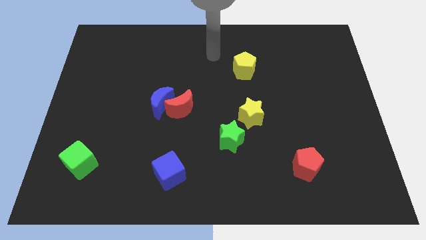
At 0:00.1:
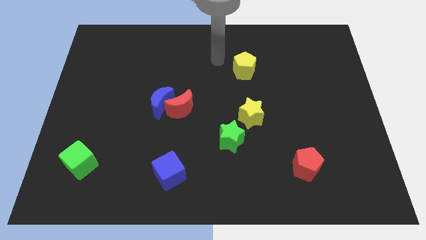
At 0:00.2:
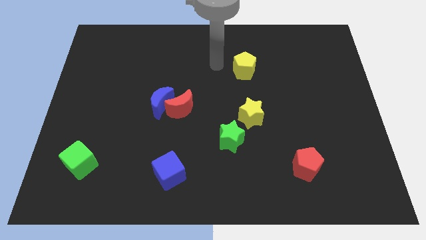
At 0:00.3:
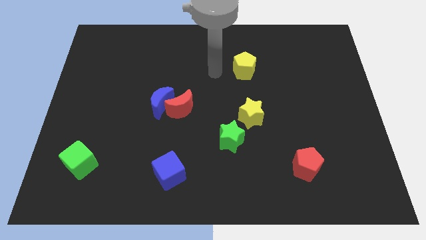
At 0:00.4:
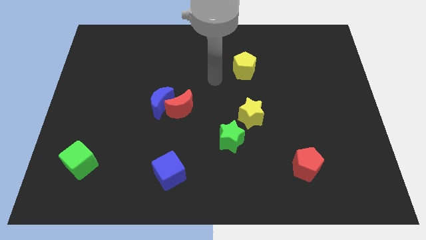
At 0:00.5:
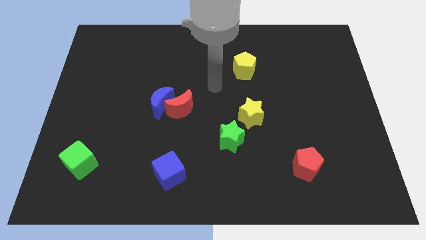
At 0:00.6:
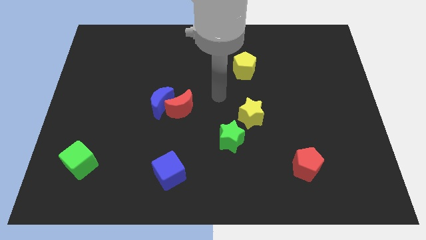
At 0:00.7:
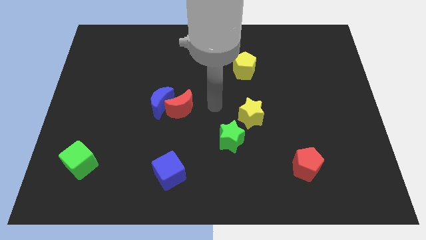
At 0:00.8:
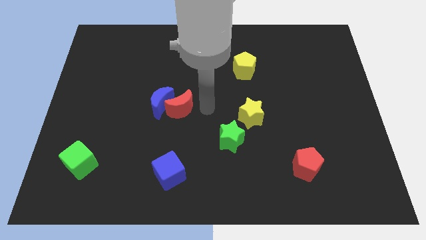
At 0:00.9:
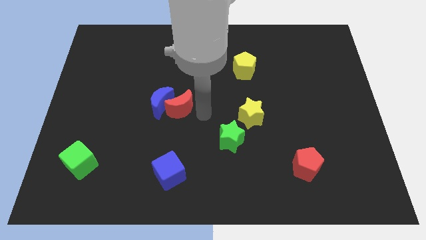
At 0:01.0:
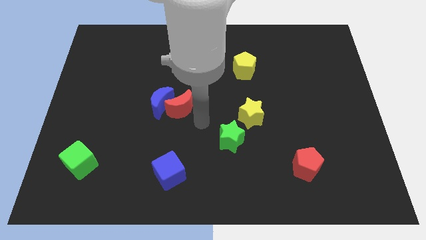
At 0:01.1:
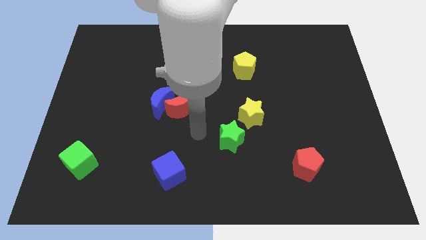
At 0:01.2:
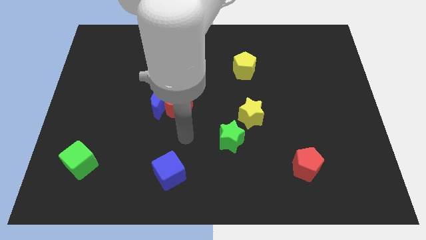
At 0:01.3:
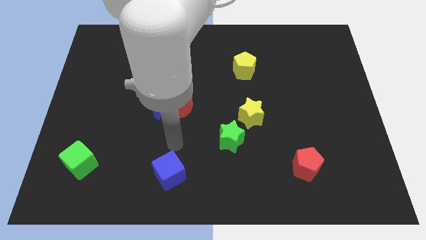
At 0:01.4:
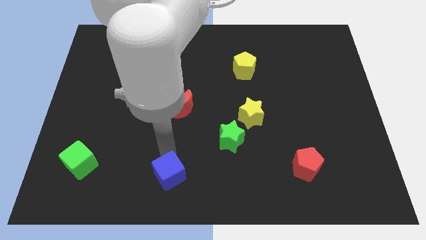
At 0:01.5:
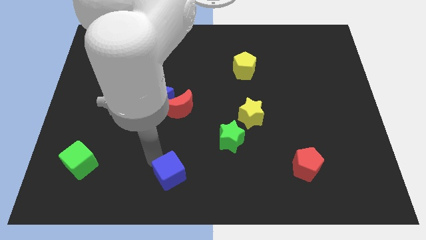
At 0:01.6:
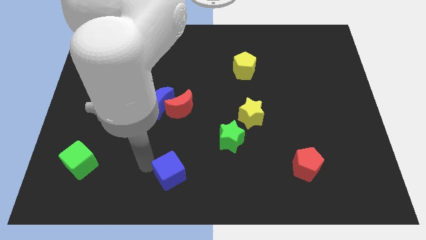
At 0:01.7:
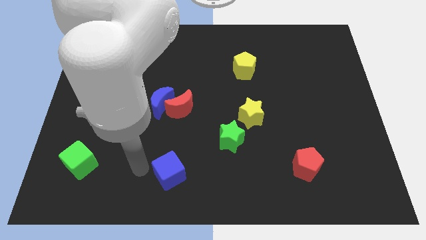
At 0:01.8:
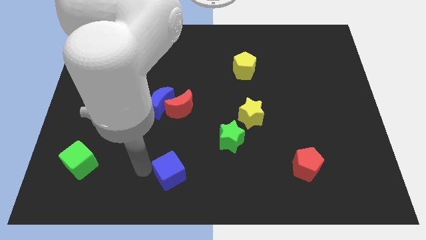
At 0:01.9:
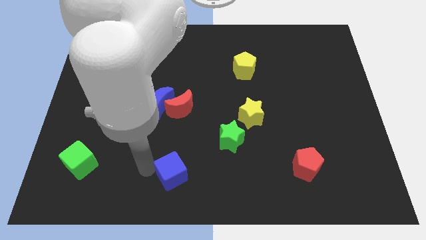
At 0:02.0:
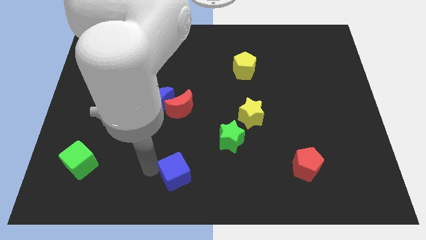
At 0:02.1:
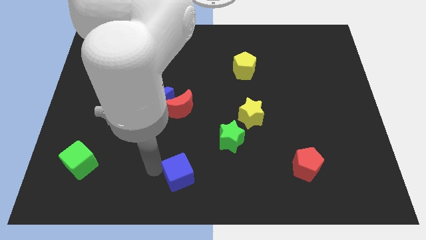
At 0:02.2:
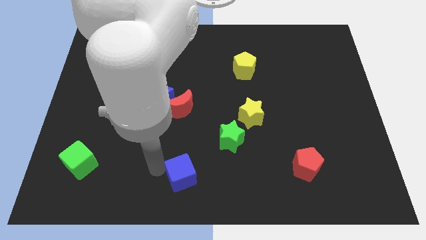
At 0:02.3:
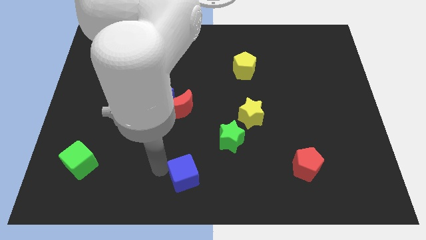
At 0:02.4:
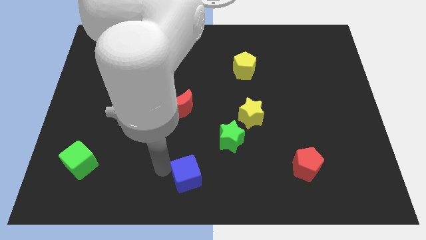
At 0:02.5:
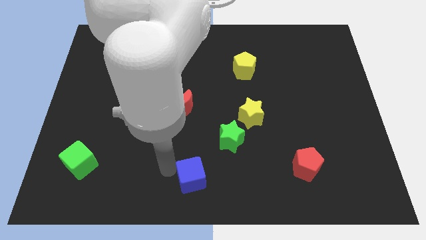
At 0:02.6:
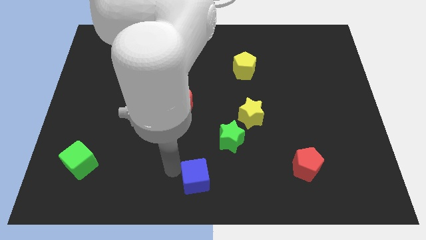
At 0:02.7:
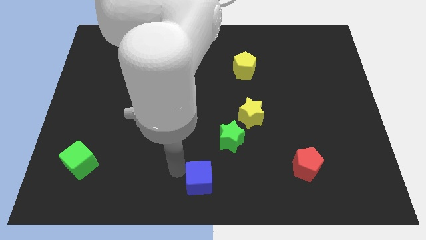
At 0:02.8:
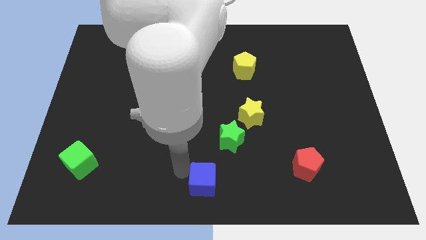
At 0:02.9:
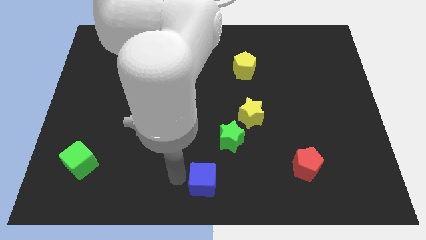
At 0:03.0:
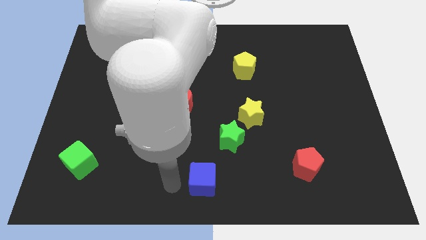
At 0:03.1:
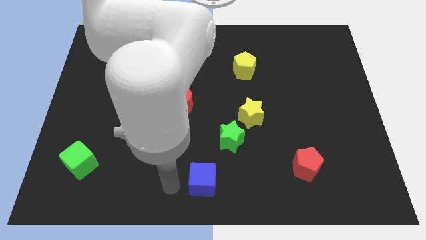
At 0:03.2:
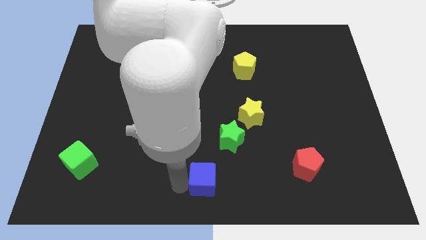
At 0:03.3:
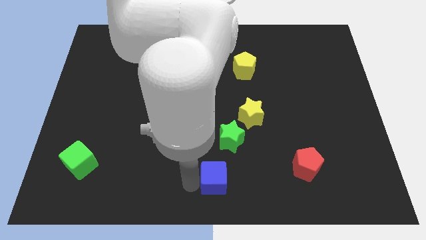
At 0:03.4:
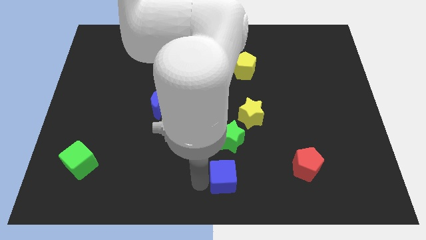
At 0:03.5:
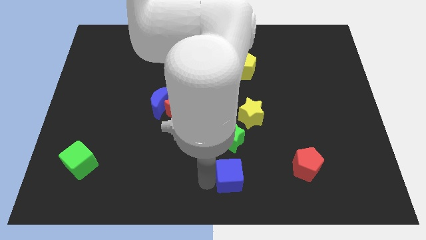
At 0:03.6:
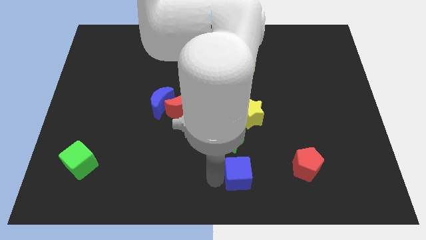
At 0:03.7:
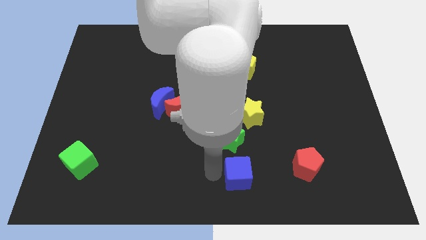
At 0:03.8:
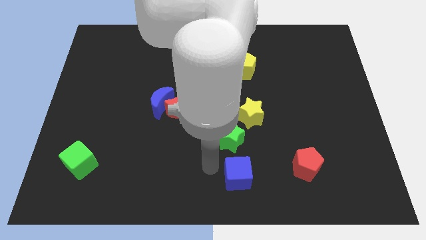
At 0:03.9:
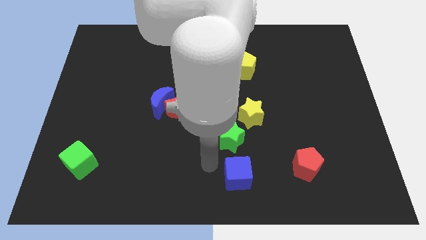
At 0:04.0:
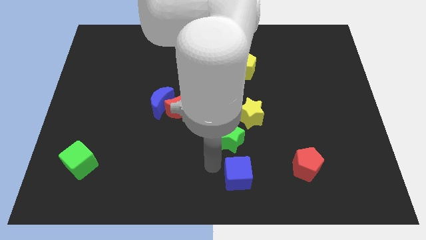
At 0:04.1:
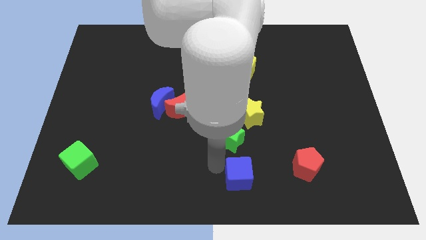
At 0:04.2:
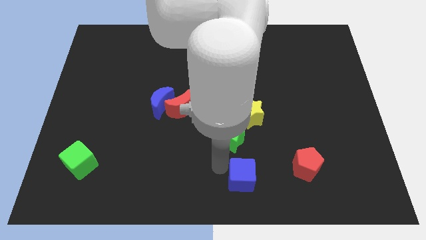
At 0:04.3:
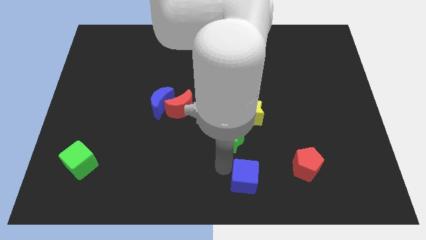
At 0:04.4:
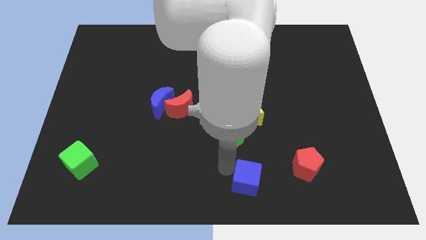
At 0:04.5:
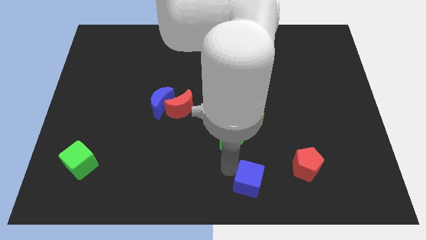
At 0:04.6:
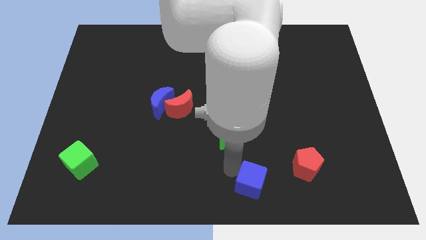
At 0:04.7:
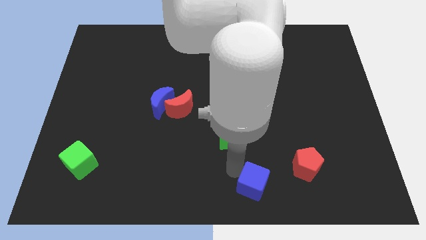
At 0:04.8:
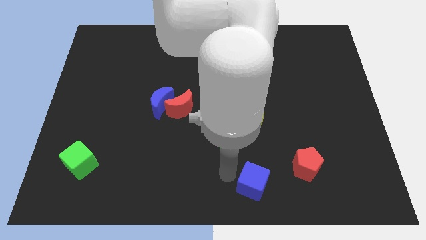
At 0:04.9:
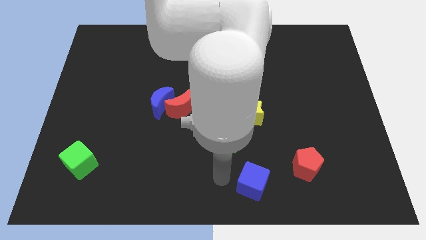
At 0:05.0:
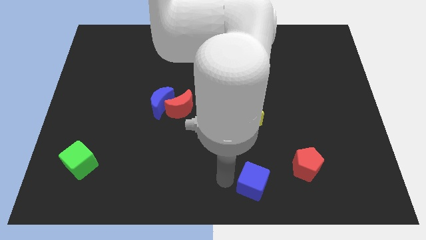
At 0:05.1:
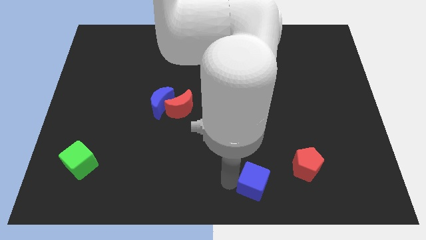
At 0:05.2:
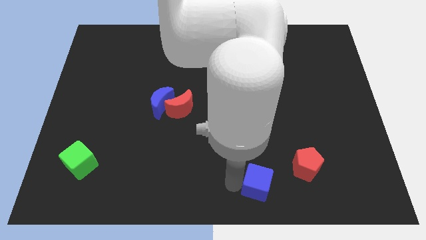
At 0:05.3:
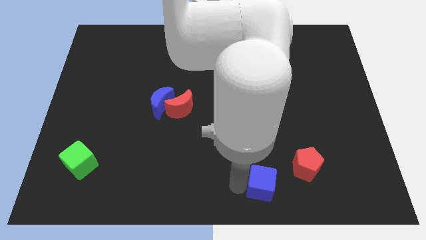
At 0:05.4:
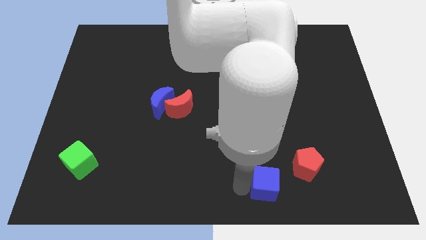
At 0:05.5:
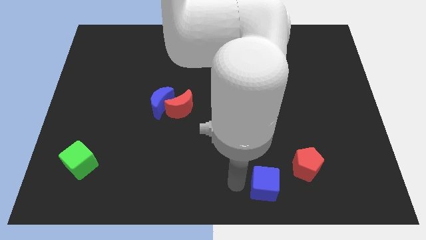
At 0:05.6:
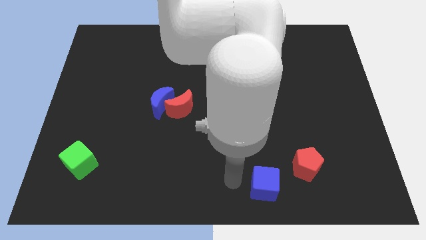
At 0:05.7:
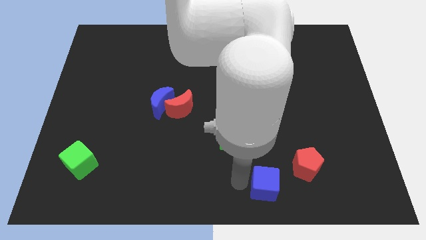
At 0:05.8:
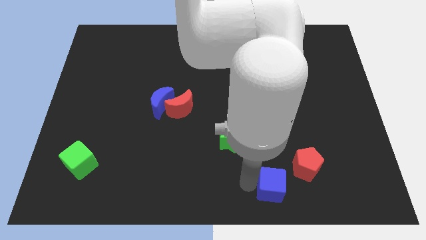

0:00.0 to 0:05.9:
push the blue cube right

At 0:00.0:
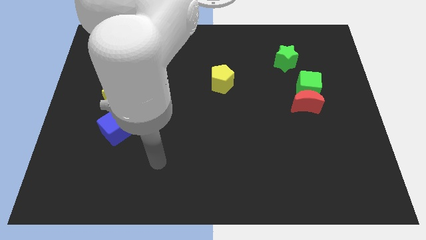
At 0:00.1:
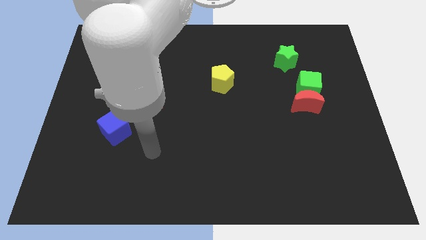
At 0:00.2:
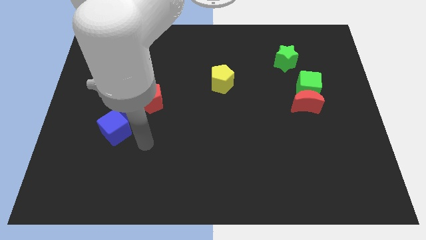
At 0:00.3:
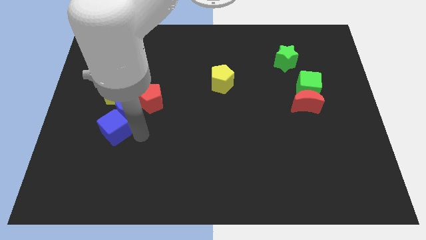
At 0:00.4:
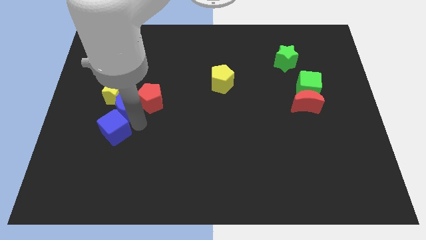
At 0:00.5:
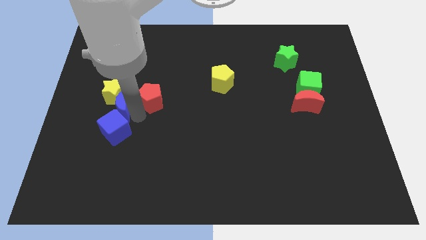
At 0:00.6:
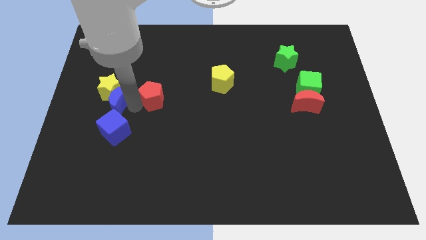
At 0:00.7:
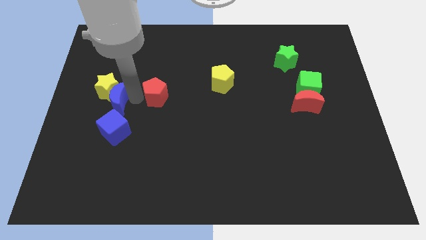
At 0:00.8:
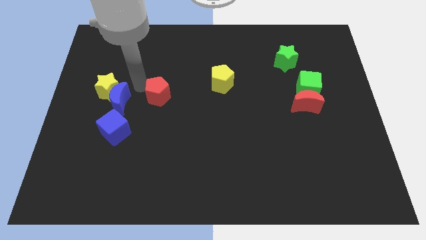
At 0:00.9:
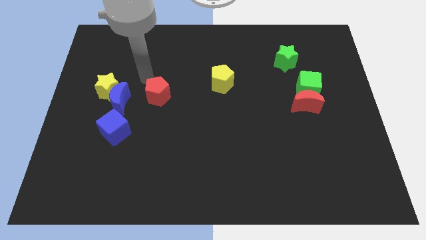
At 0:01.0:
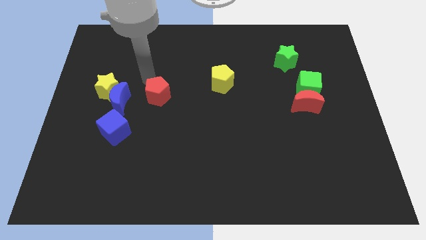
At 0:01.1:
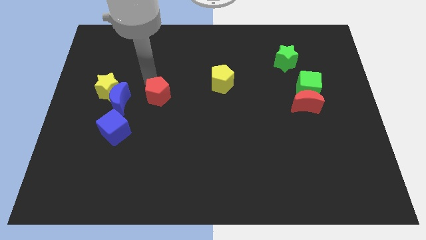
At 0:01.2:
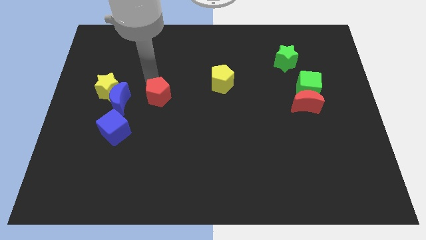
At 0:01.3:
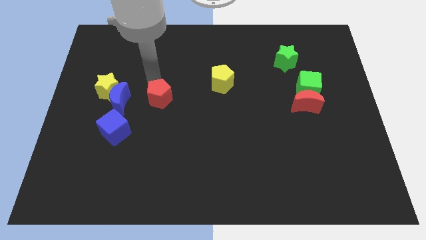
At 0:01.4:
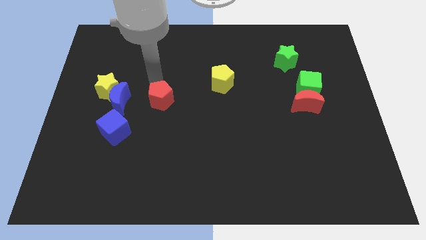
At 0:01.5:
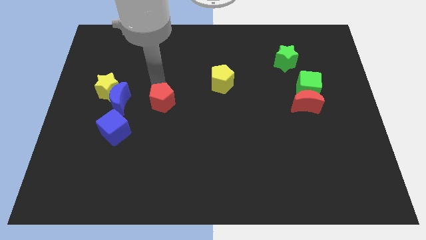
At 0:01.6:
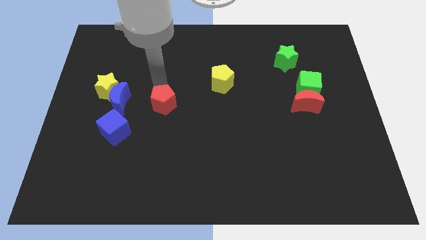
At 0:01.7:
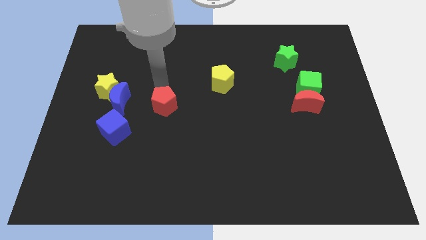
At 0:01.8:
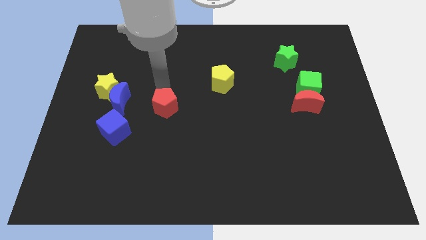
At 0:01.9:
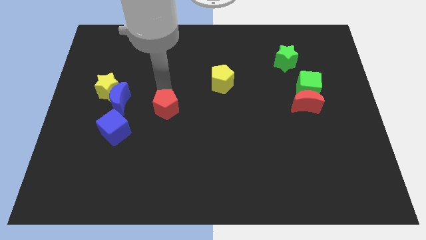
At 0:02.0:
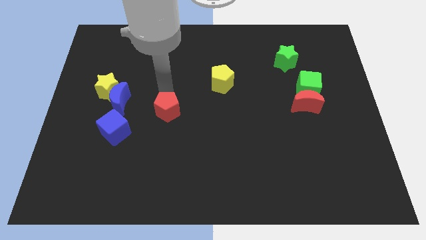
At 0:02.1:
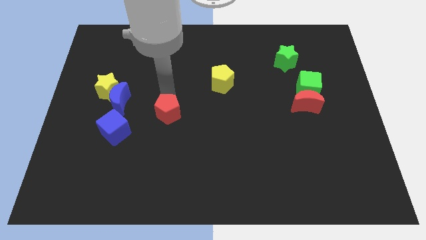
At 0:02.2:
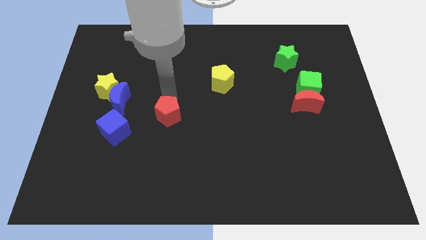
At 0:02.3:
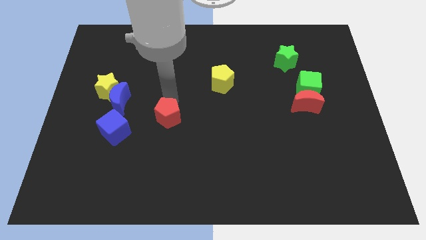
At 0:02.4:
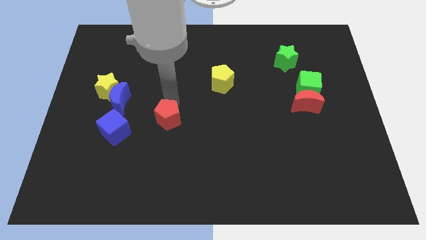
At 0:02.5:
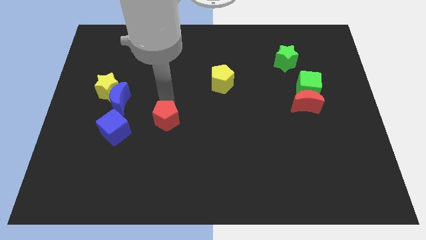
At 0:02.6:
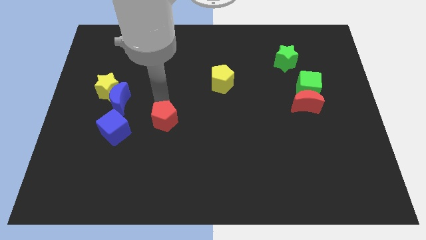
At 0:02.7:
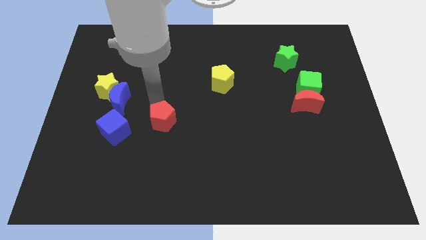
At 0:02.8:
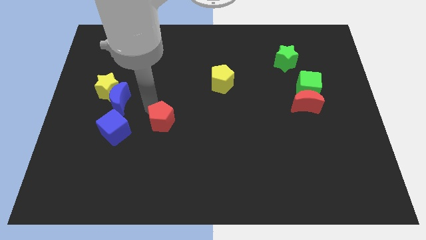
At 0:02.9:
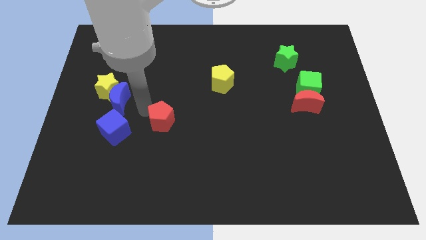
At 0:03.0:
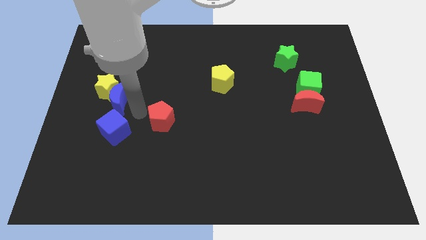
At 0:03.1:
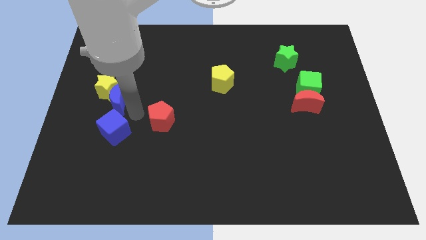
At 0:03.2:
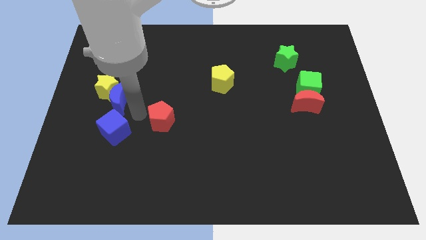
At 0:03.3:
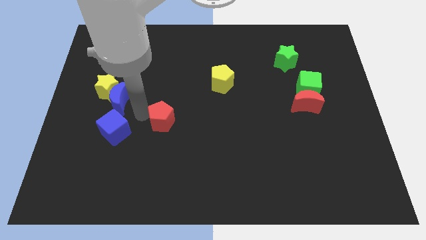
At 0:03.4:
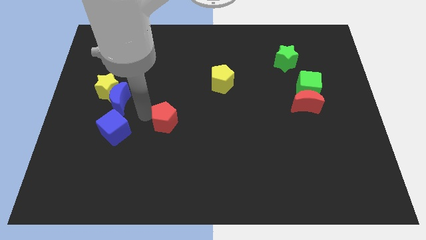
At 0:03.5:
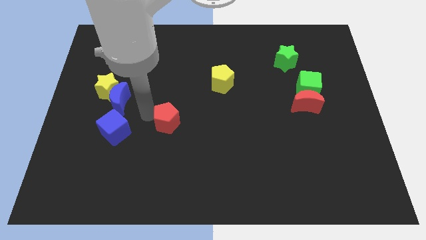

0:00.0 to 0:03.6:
slightly move the red pentagon diagonally down and right
